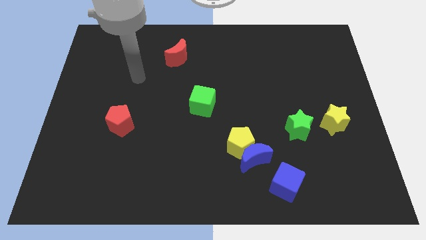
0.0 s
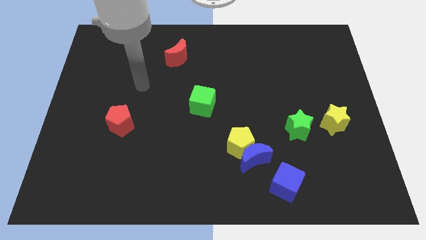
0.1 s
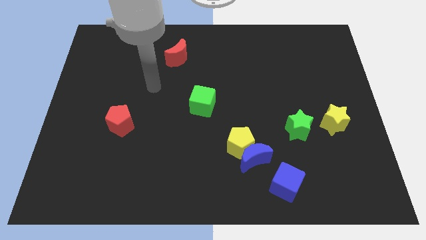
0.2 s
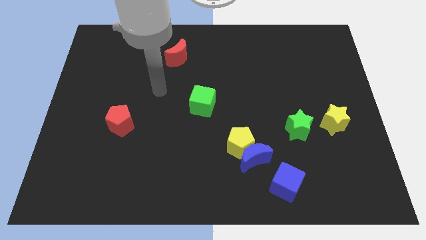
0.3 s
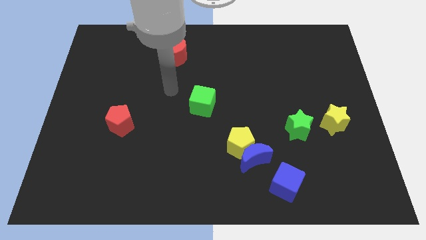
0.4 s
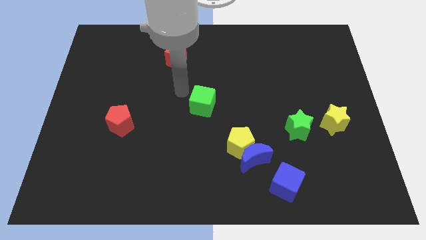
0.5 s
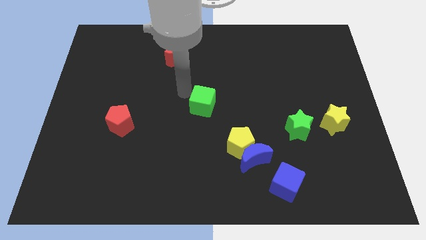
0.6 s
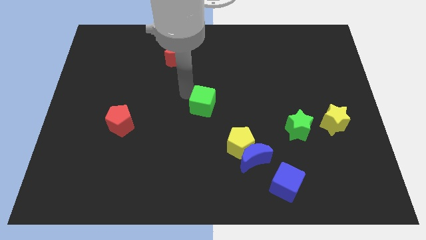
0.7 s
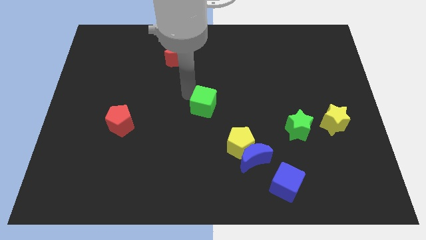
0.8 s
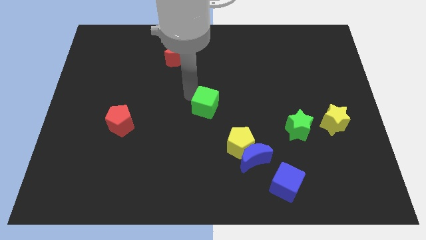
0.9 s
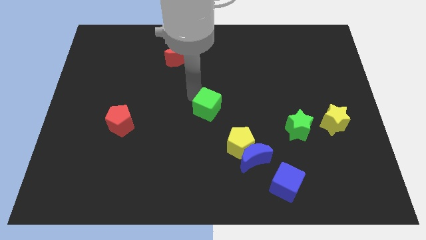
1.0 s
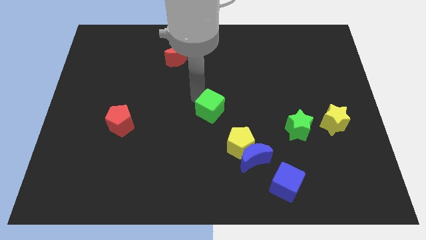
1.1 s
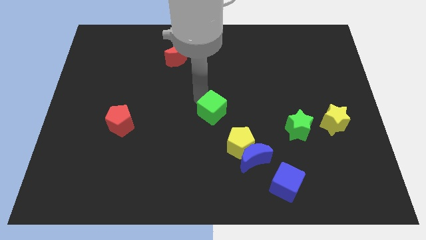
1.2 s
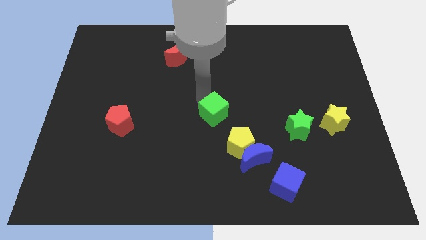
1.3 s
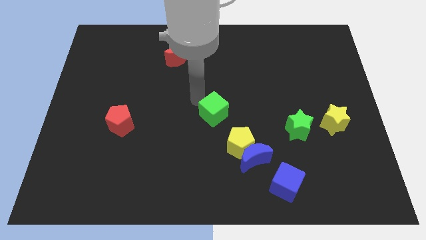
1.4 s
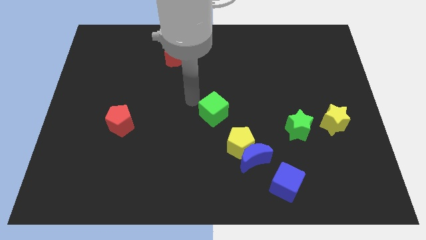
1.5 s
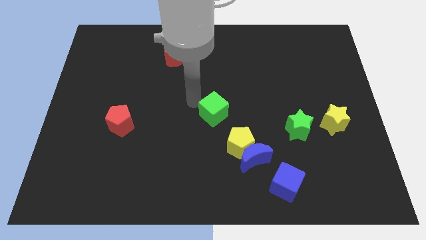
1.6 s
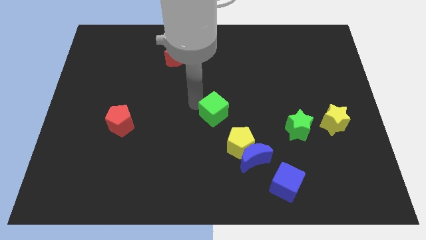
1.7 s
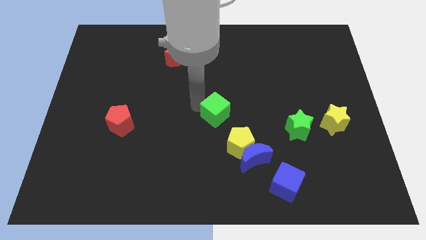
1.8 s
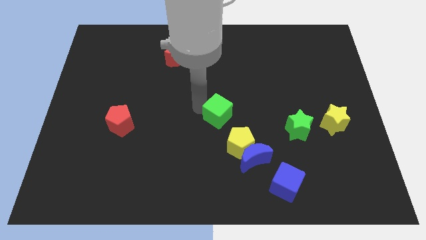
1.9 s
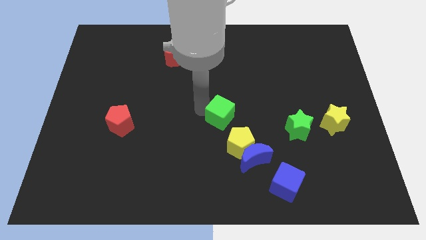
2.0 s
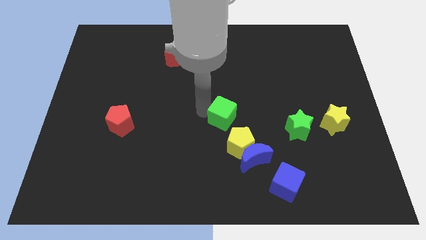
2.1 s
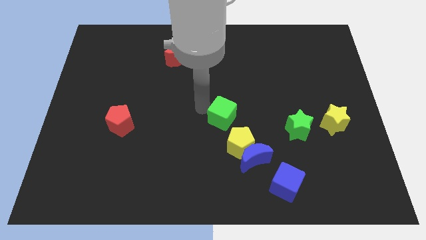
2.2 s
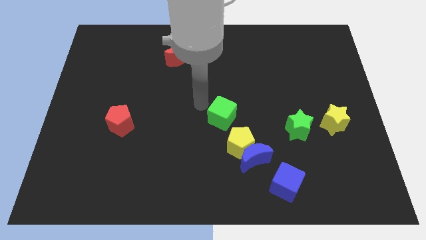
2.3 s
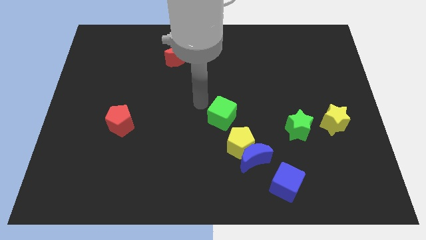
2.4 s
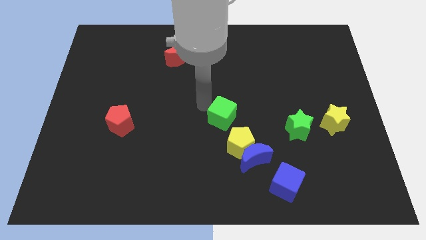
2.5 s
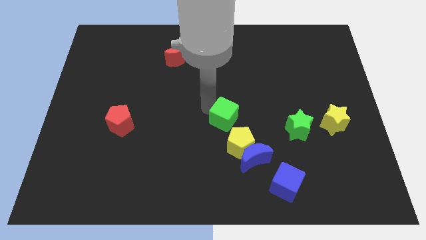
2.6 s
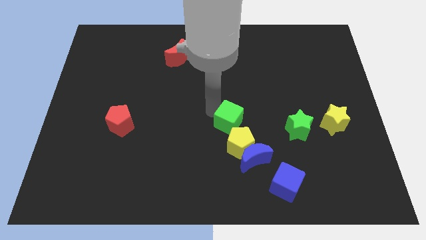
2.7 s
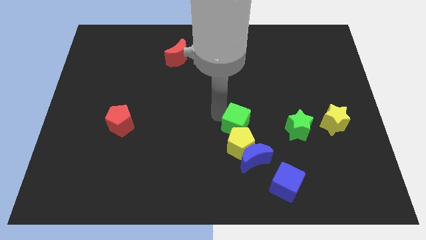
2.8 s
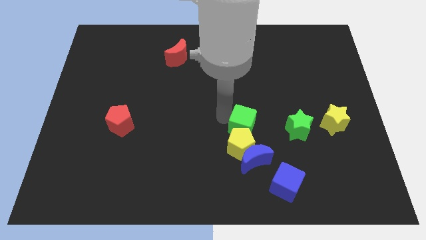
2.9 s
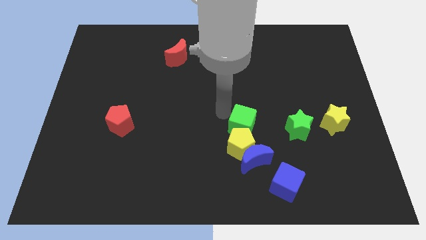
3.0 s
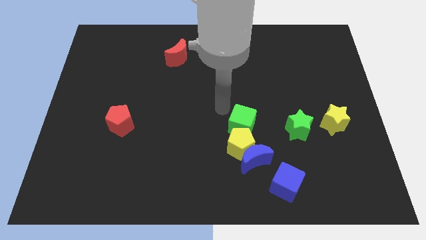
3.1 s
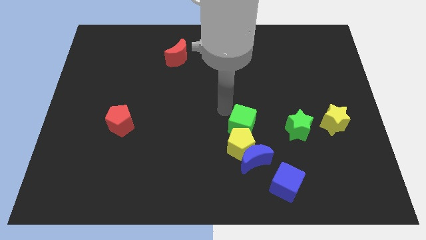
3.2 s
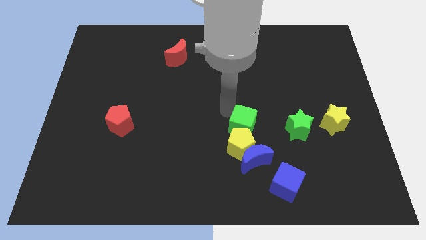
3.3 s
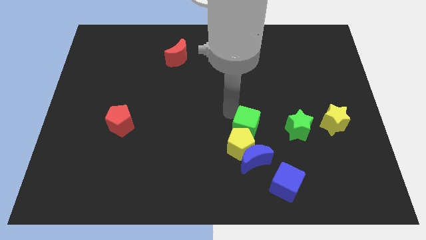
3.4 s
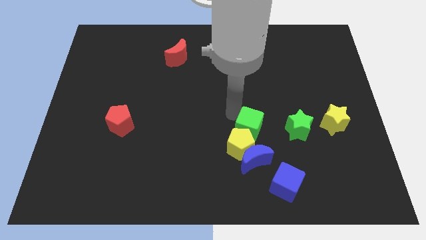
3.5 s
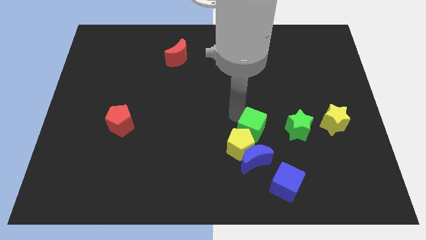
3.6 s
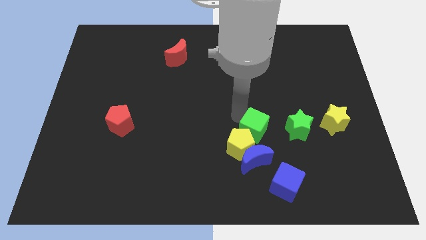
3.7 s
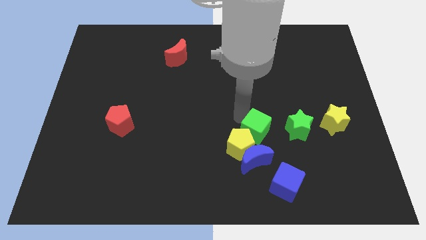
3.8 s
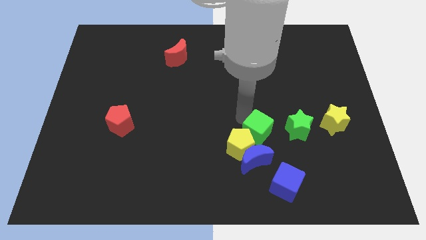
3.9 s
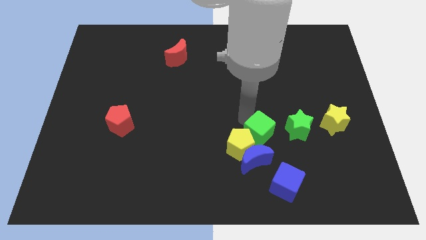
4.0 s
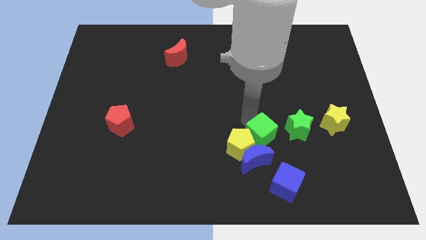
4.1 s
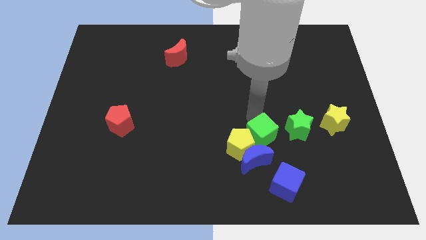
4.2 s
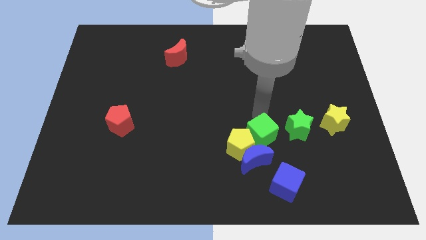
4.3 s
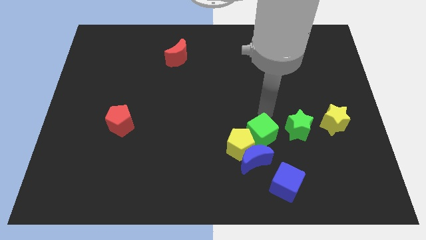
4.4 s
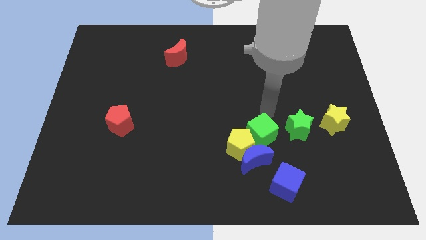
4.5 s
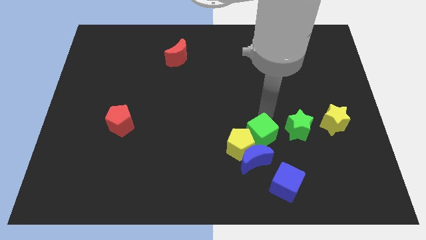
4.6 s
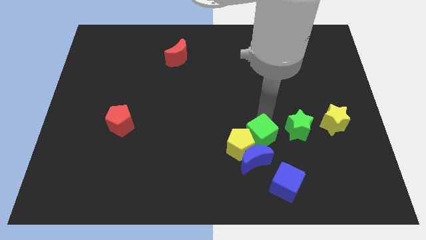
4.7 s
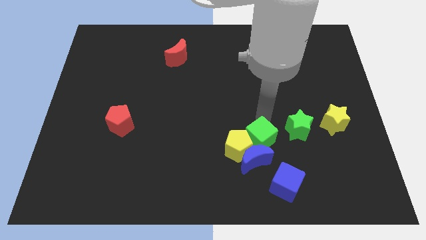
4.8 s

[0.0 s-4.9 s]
slide the green cube towards the blue moon

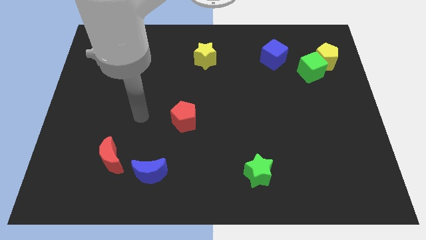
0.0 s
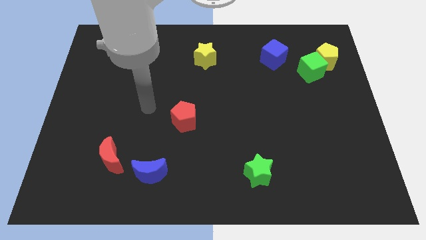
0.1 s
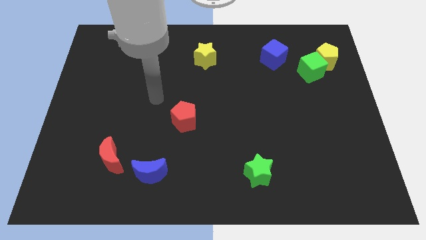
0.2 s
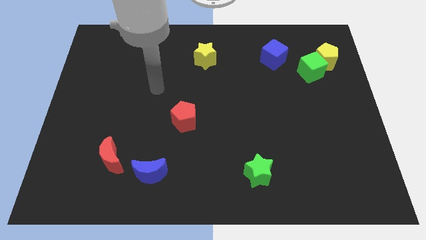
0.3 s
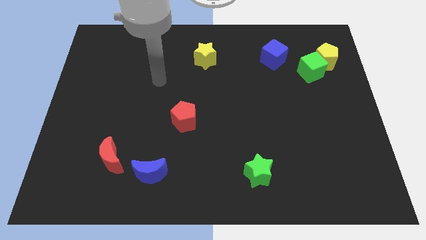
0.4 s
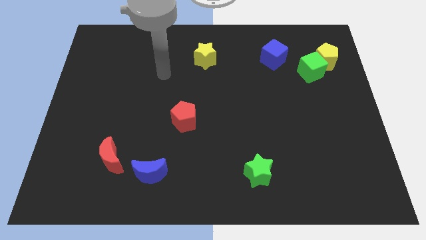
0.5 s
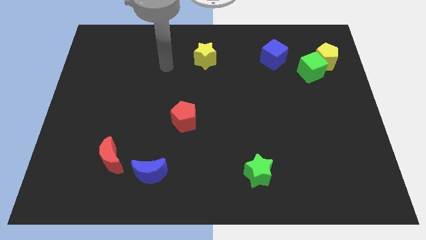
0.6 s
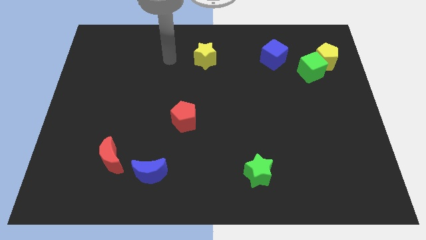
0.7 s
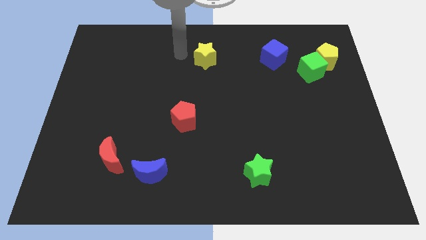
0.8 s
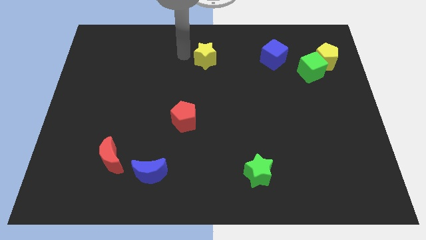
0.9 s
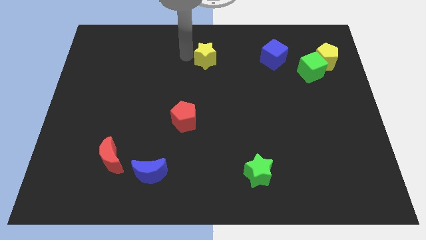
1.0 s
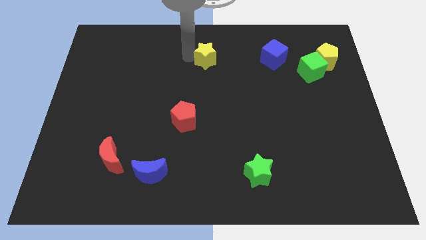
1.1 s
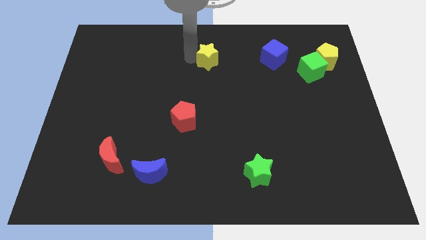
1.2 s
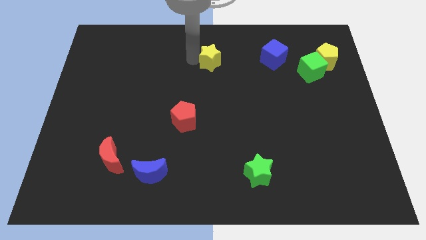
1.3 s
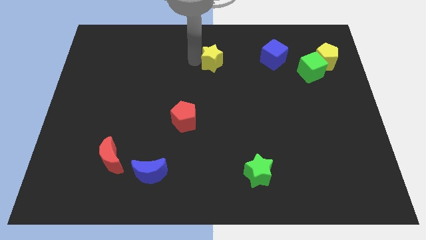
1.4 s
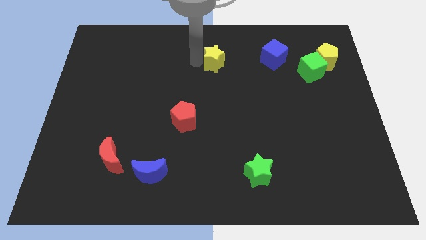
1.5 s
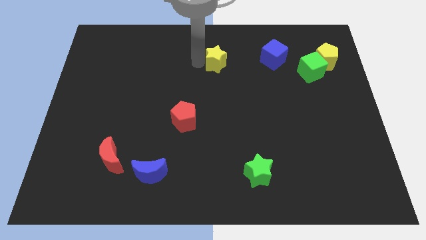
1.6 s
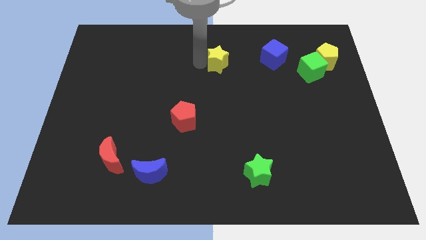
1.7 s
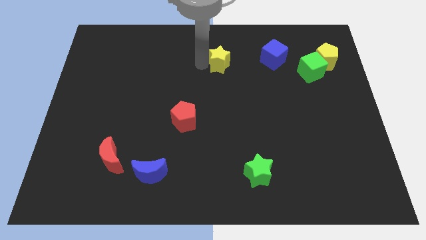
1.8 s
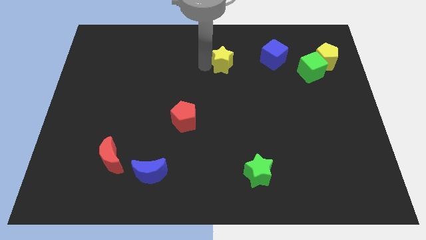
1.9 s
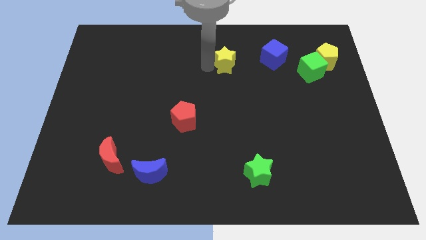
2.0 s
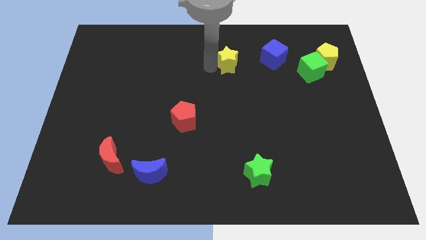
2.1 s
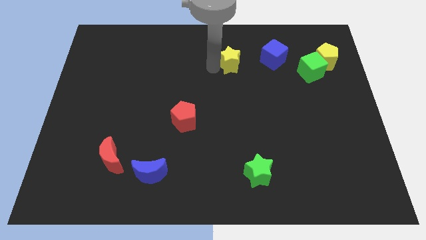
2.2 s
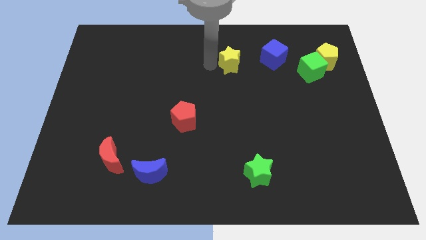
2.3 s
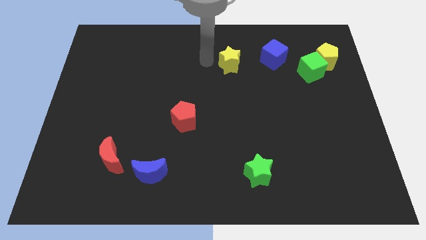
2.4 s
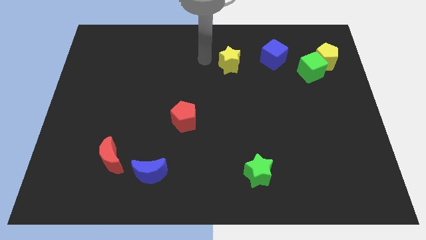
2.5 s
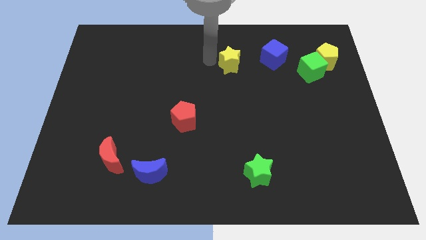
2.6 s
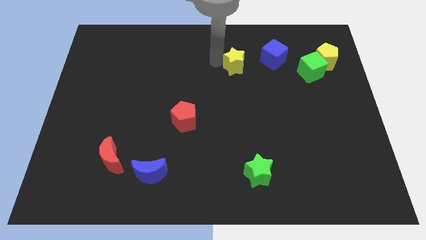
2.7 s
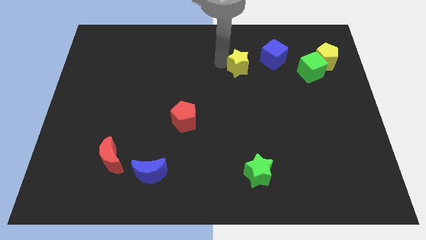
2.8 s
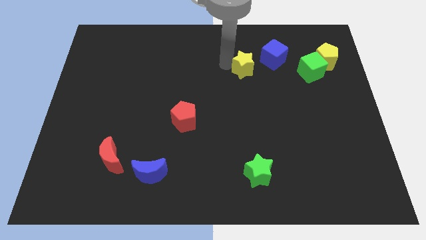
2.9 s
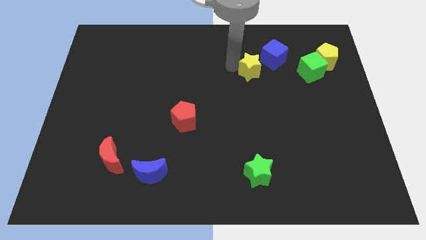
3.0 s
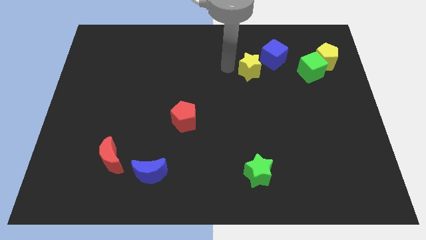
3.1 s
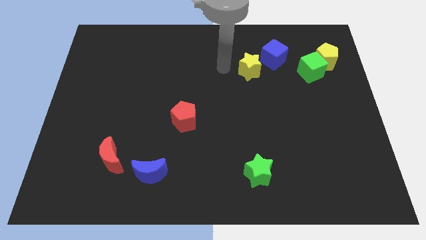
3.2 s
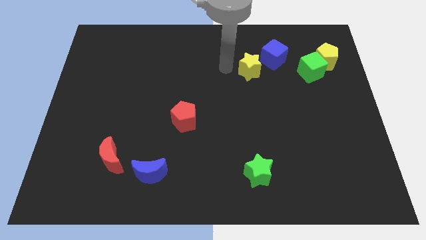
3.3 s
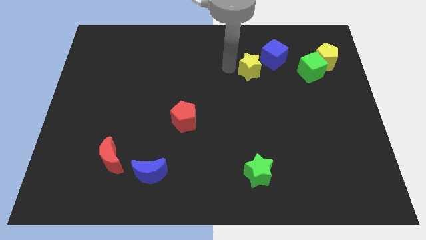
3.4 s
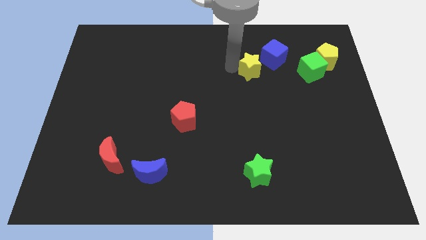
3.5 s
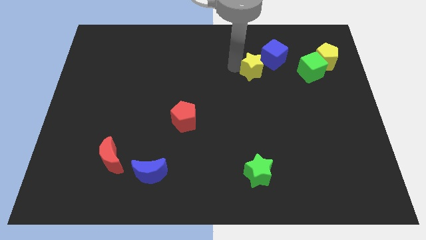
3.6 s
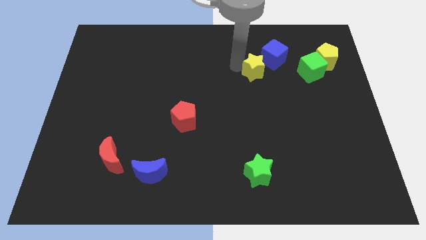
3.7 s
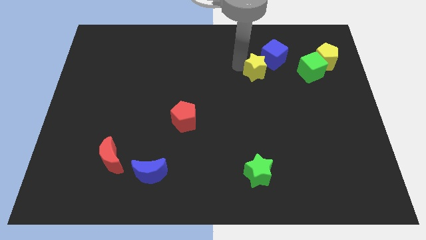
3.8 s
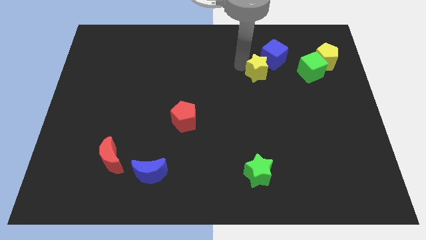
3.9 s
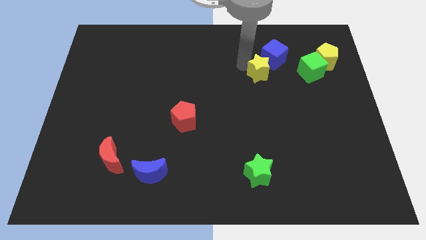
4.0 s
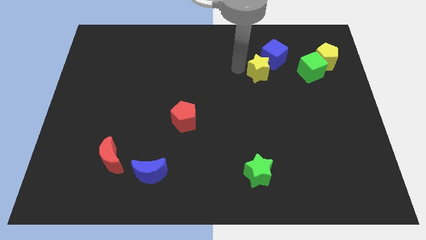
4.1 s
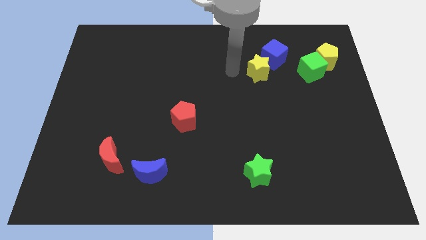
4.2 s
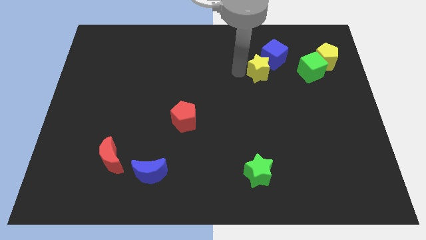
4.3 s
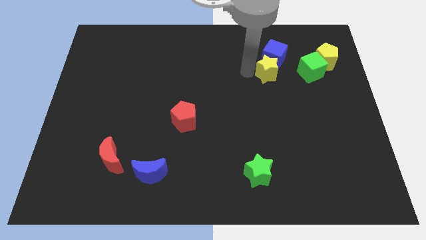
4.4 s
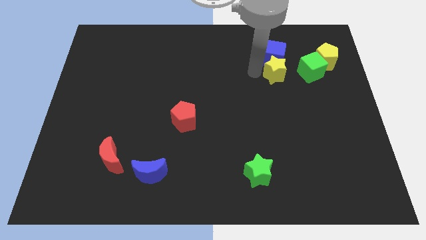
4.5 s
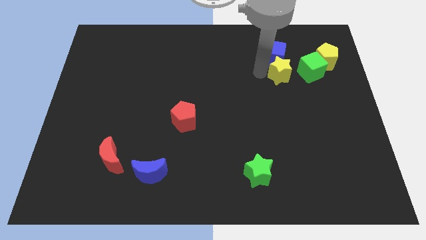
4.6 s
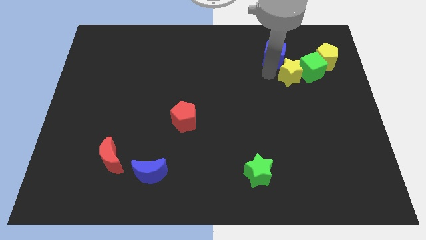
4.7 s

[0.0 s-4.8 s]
move the yellow star next to the green cube
